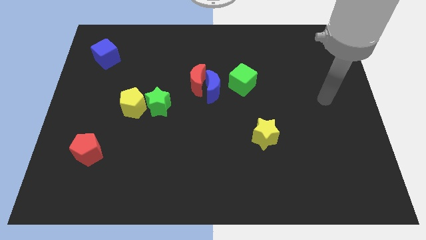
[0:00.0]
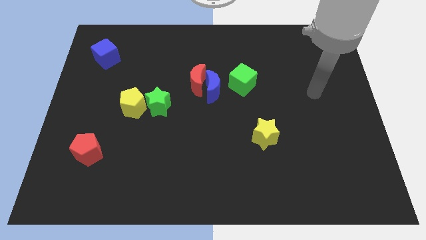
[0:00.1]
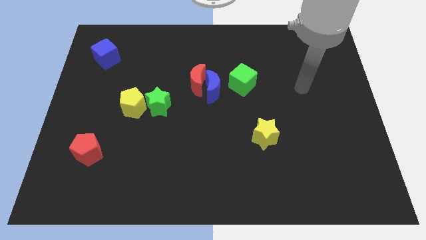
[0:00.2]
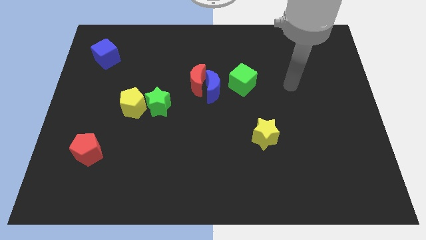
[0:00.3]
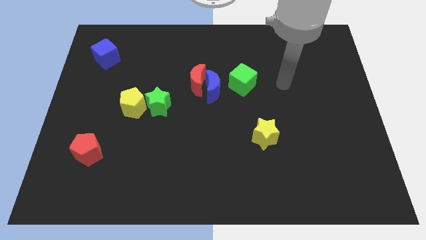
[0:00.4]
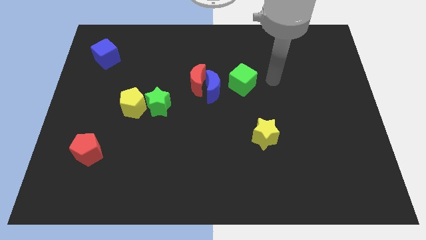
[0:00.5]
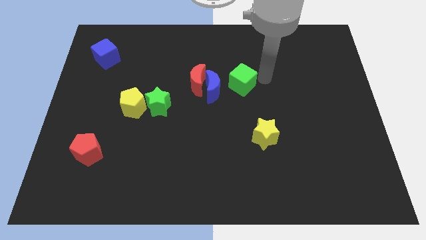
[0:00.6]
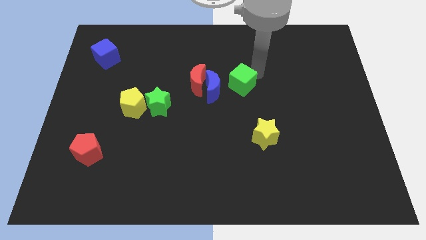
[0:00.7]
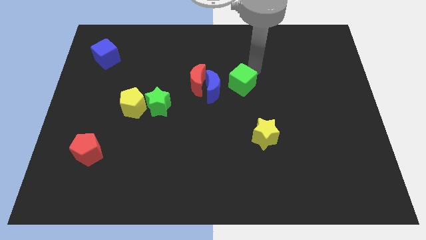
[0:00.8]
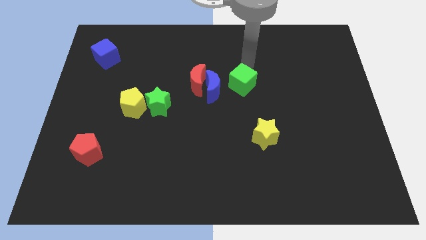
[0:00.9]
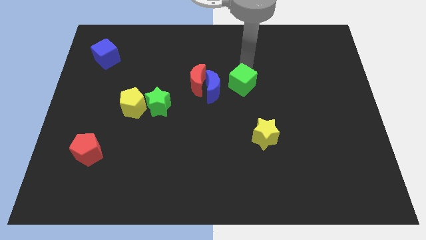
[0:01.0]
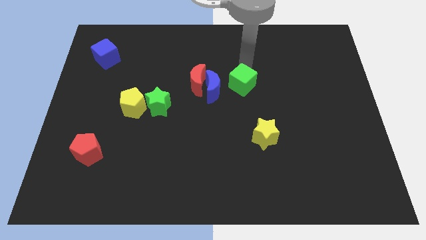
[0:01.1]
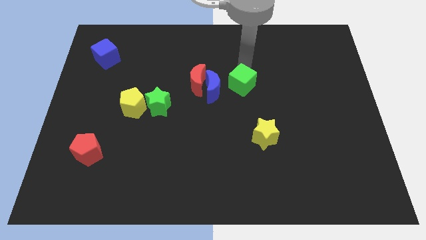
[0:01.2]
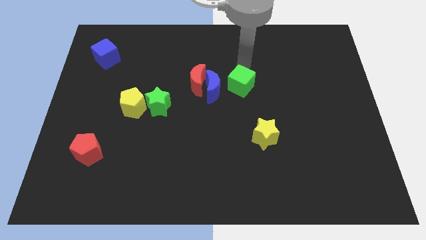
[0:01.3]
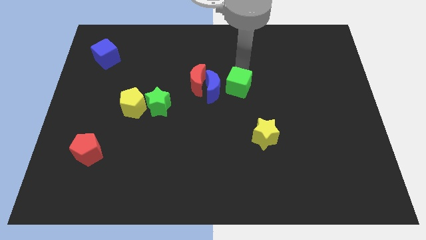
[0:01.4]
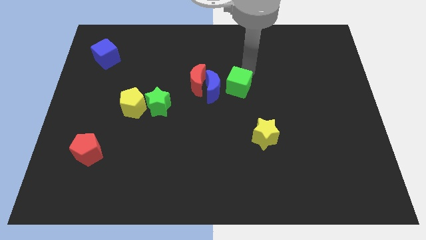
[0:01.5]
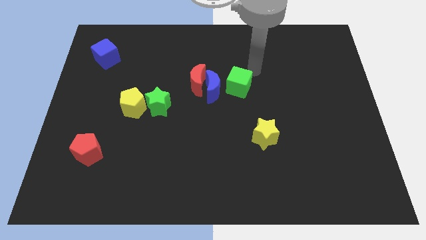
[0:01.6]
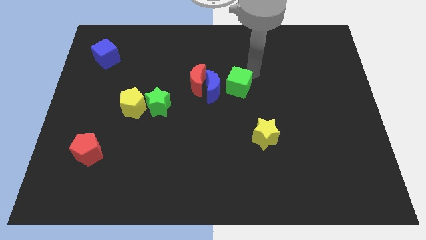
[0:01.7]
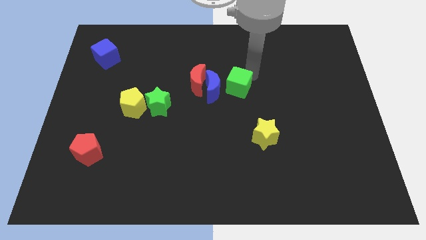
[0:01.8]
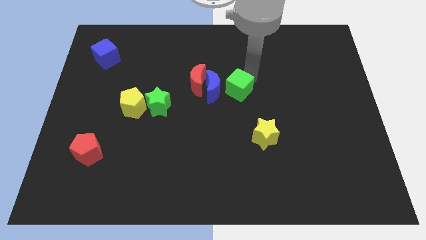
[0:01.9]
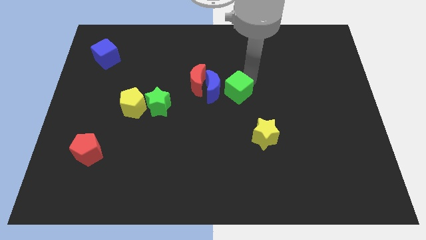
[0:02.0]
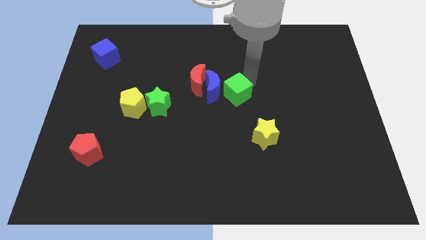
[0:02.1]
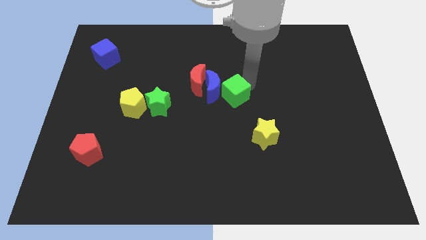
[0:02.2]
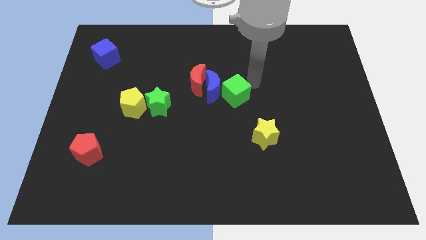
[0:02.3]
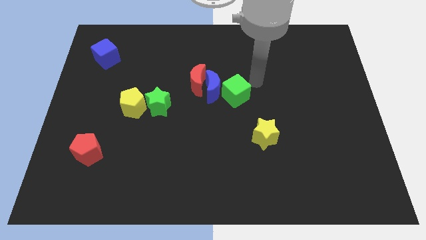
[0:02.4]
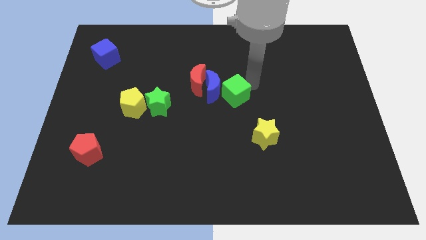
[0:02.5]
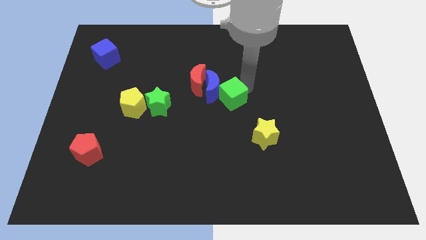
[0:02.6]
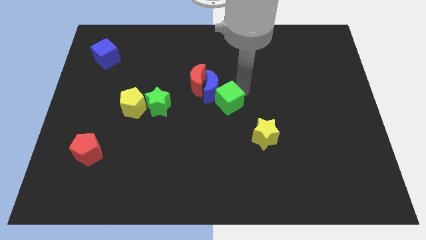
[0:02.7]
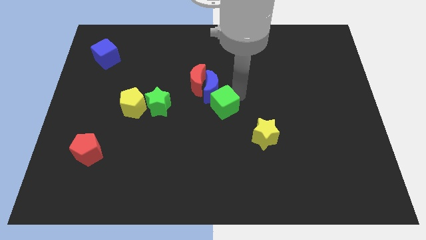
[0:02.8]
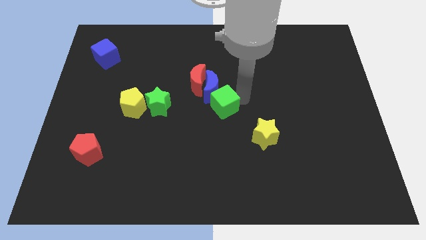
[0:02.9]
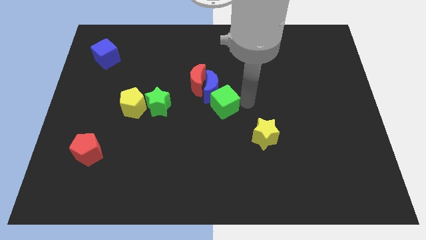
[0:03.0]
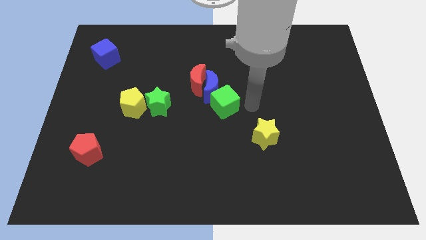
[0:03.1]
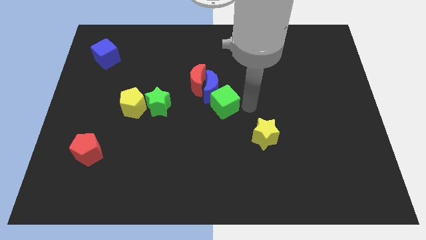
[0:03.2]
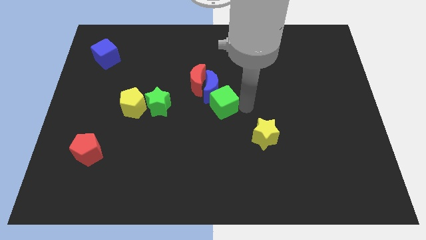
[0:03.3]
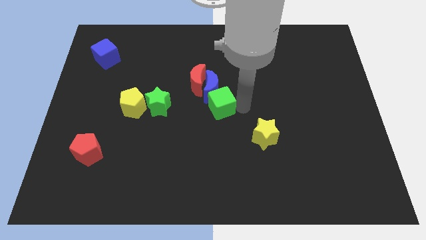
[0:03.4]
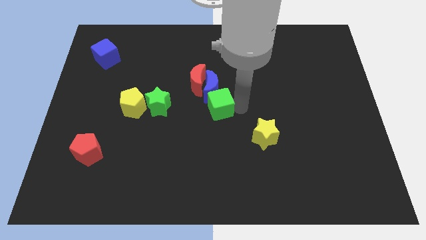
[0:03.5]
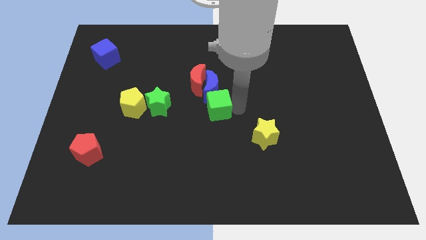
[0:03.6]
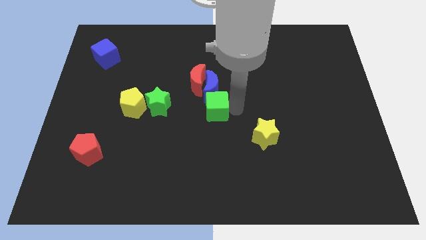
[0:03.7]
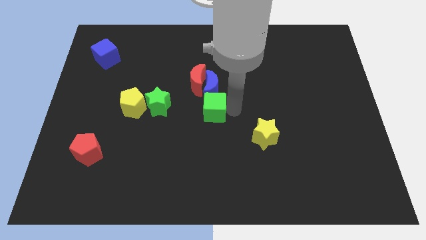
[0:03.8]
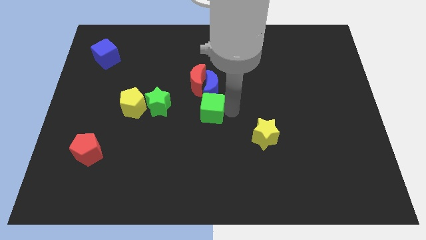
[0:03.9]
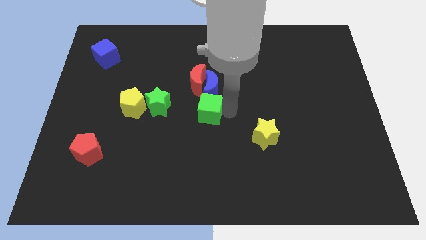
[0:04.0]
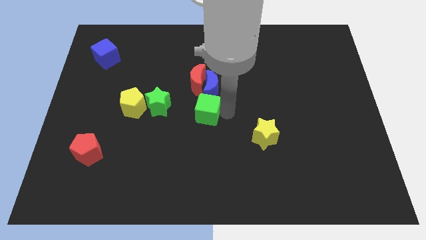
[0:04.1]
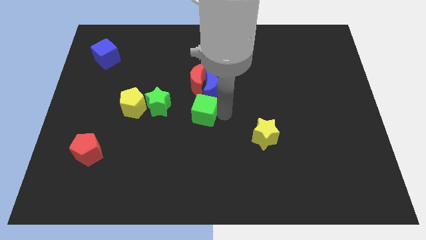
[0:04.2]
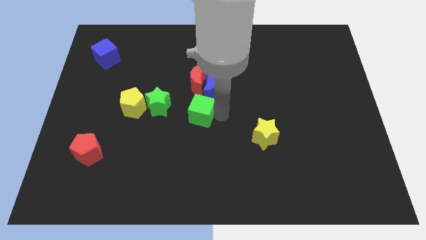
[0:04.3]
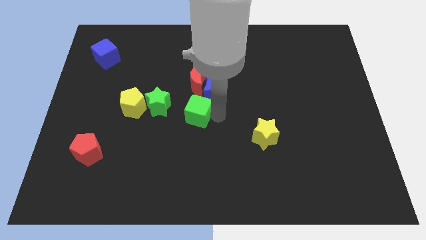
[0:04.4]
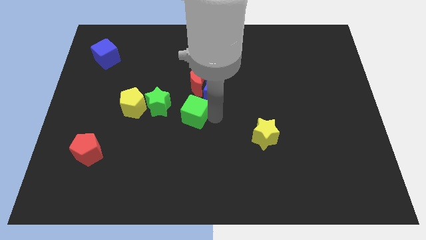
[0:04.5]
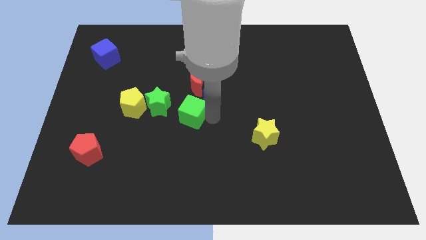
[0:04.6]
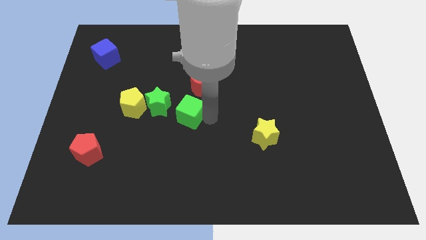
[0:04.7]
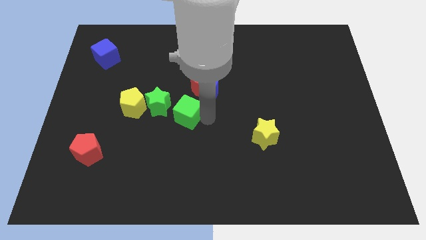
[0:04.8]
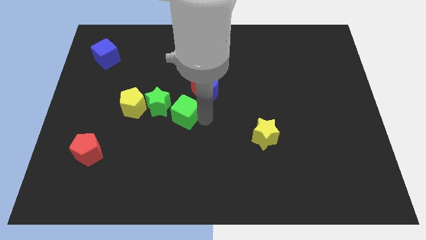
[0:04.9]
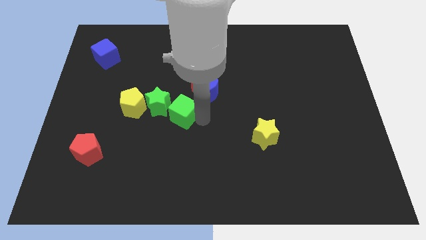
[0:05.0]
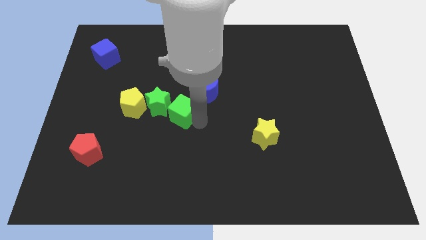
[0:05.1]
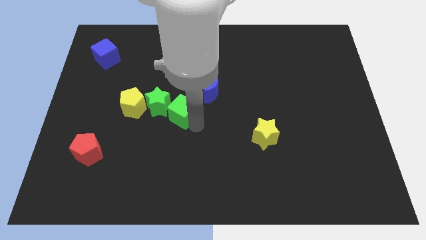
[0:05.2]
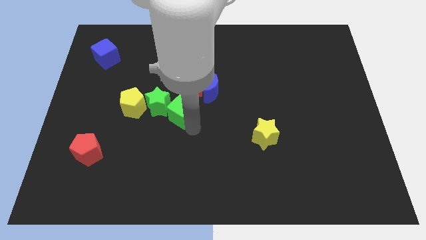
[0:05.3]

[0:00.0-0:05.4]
slide the green cube next to the green star
